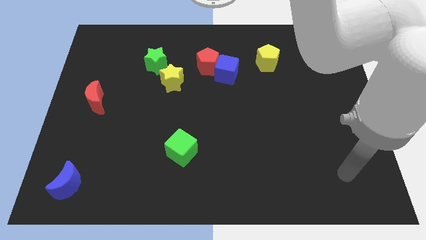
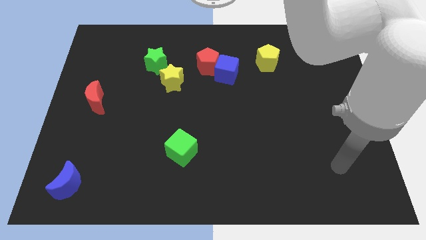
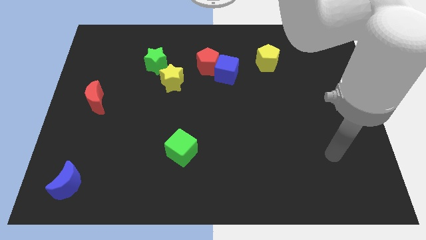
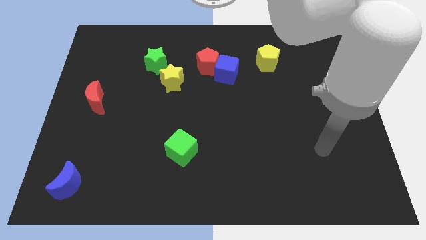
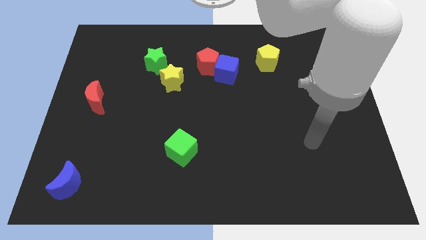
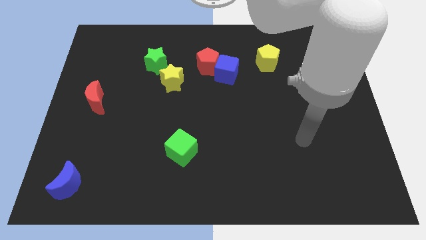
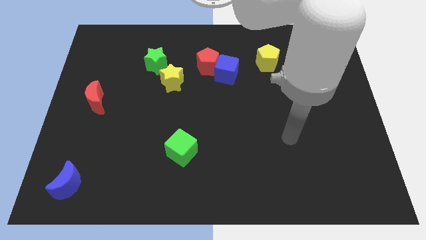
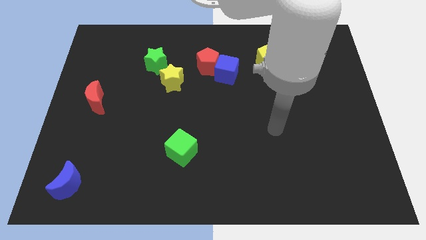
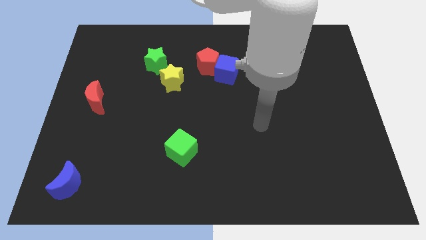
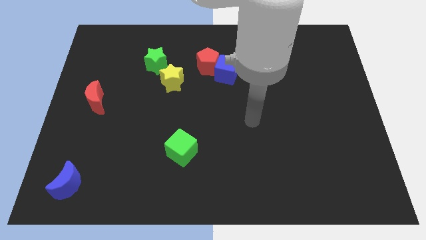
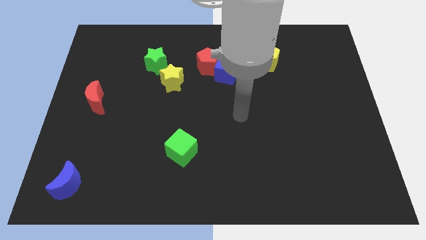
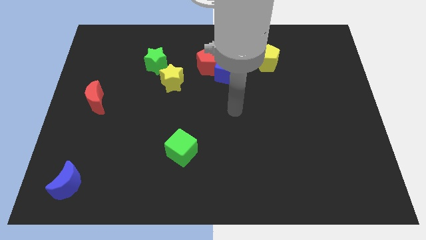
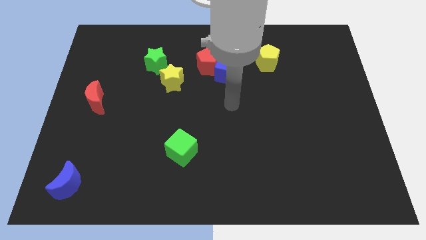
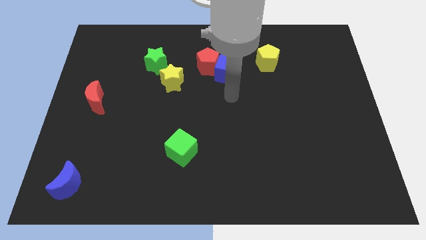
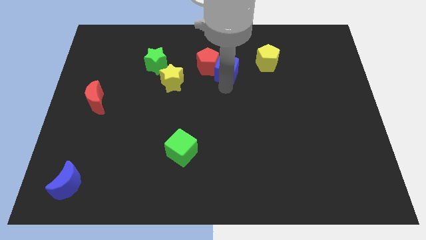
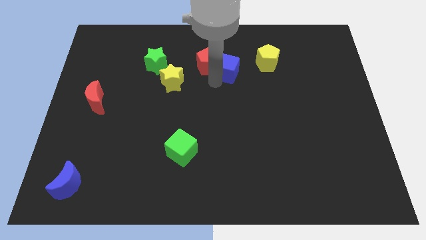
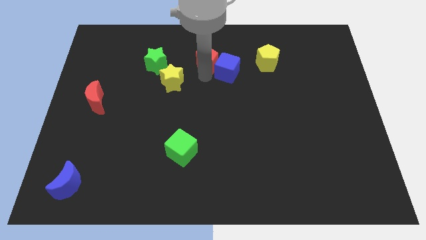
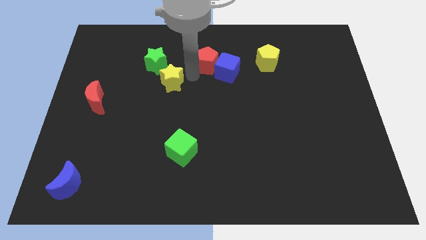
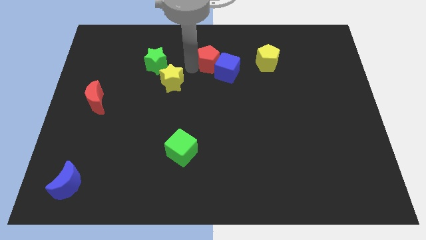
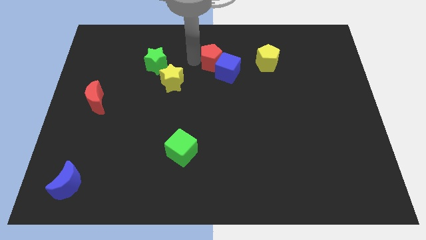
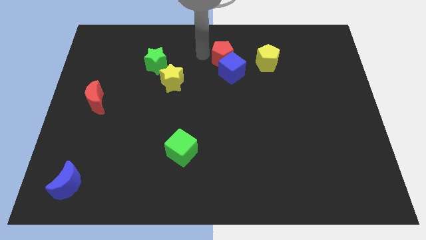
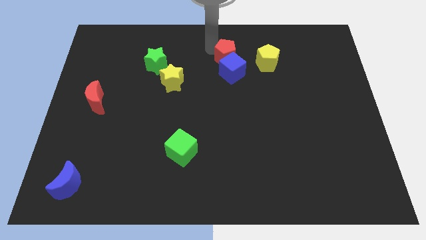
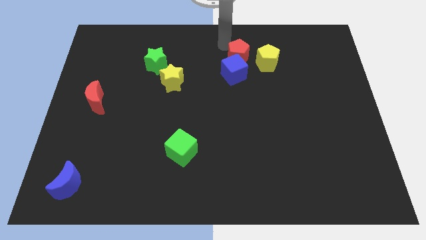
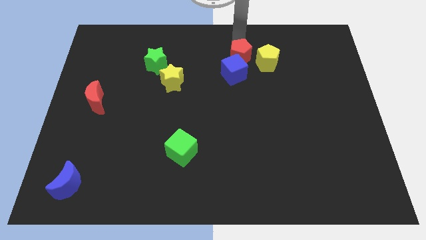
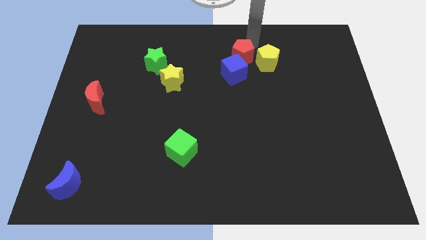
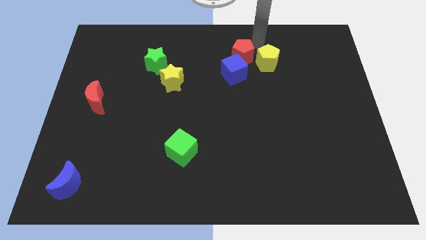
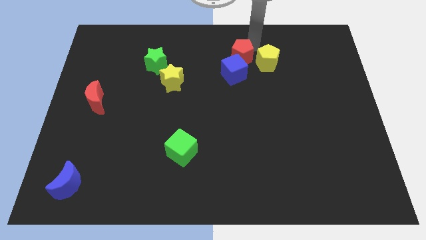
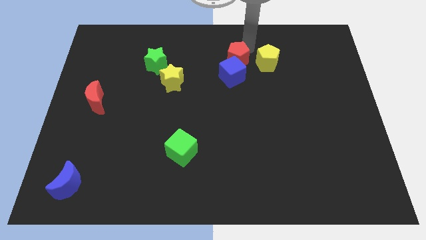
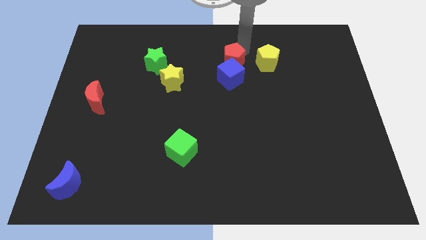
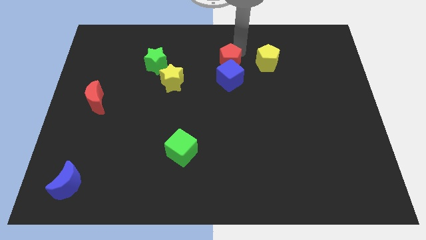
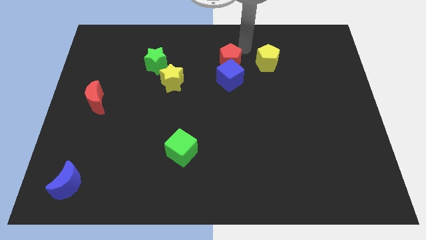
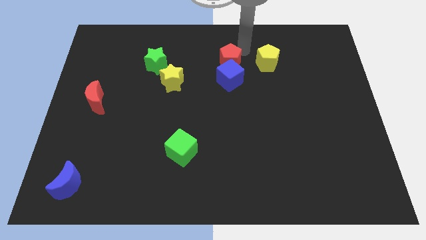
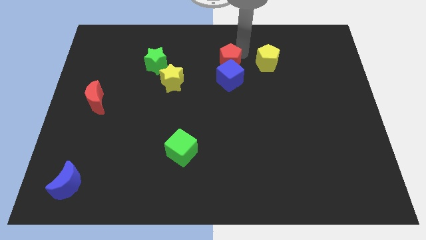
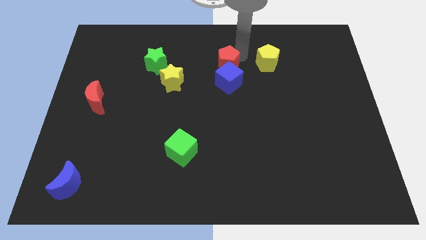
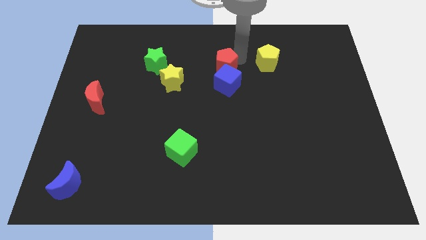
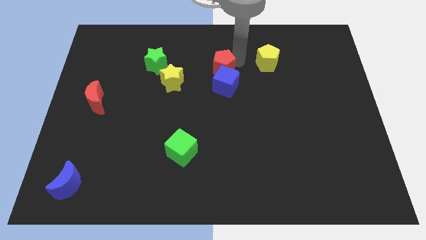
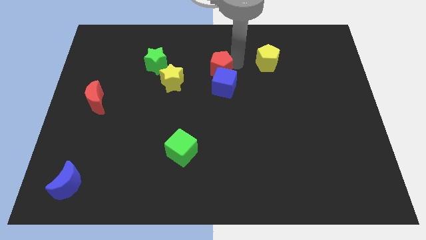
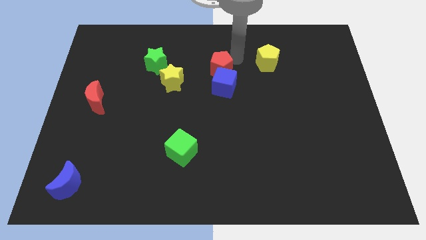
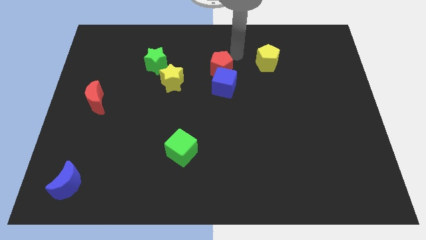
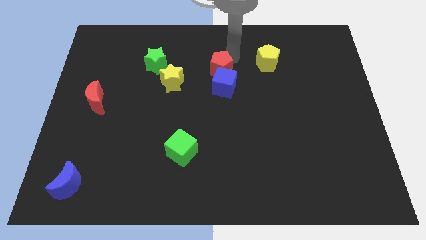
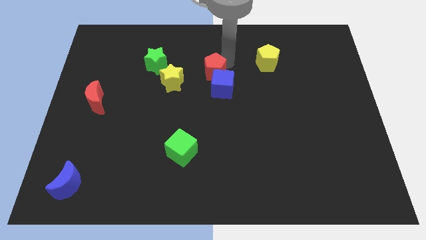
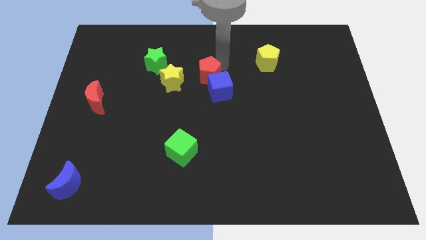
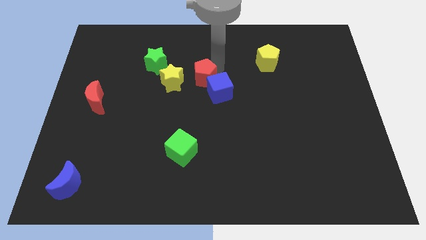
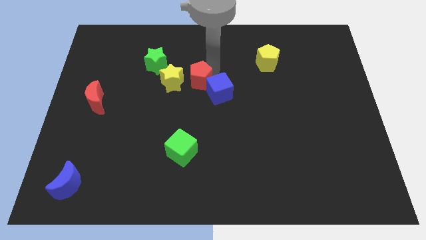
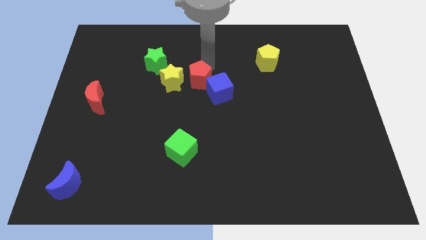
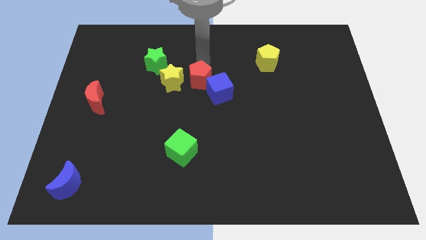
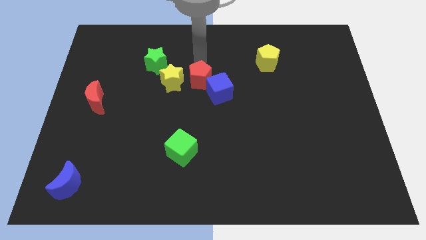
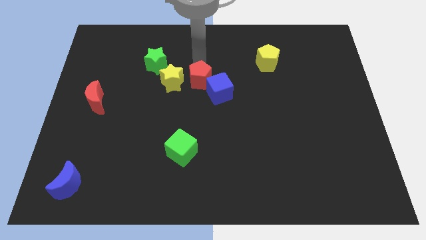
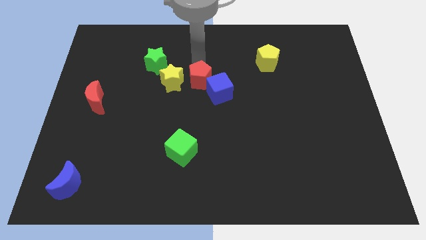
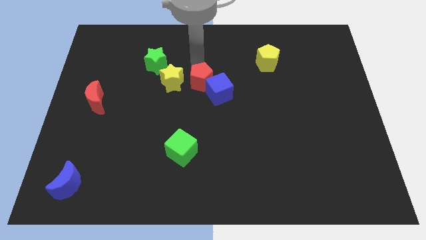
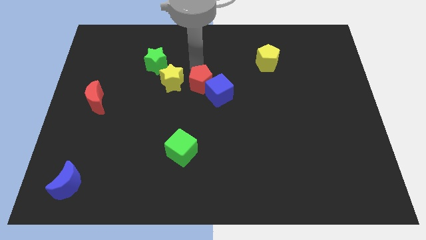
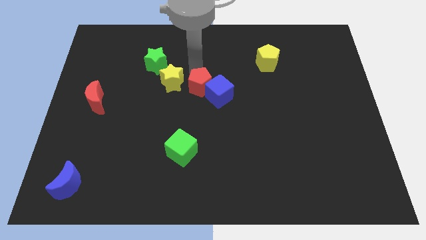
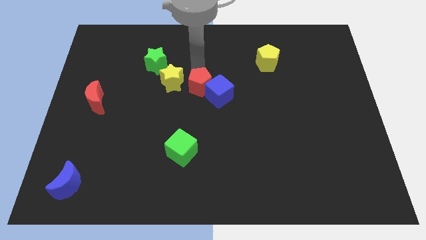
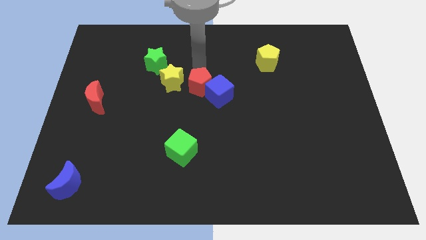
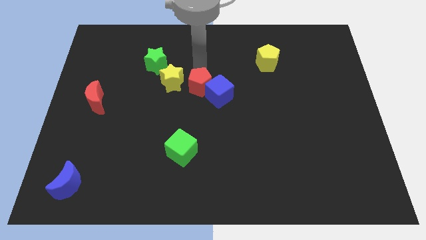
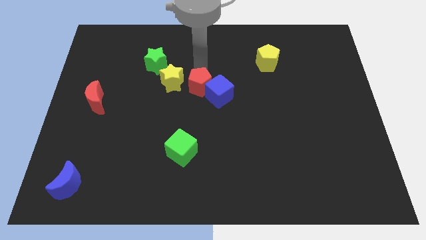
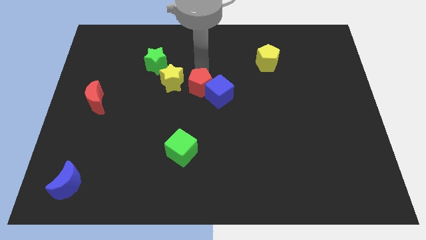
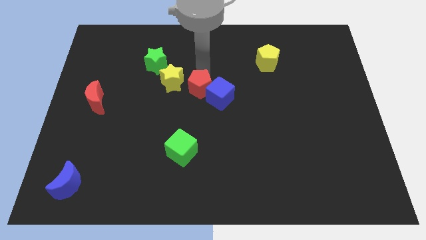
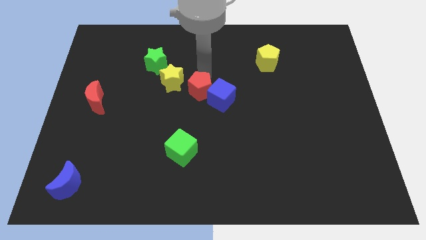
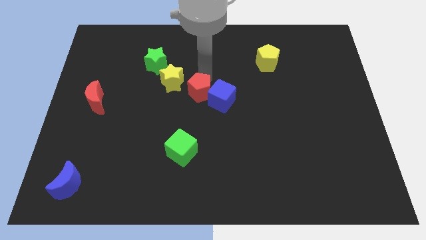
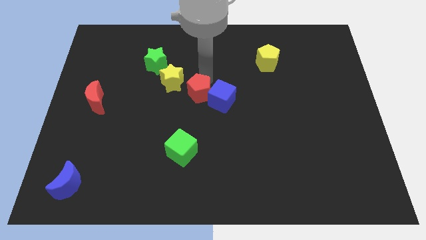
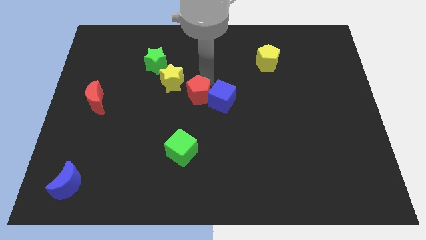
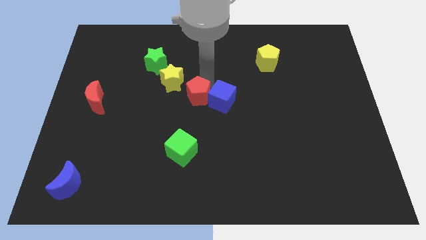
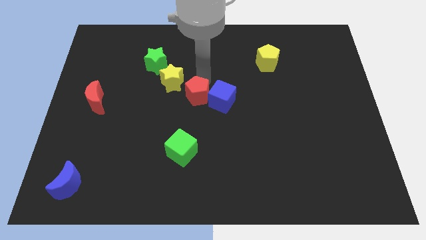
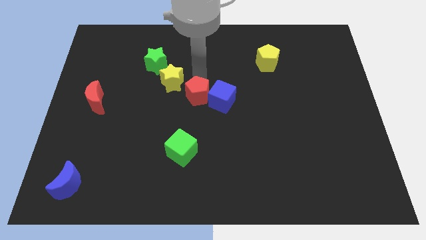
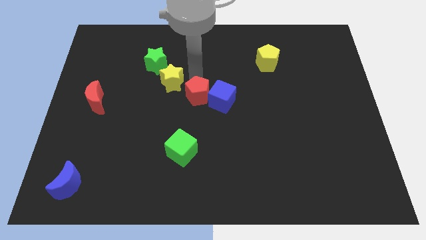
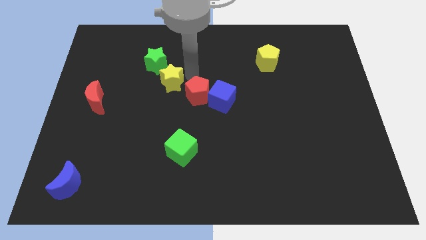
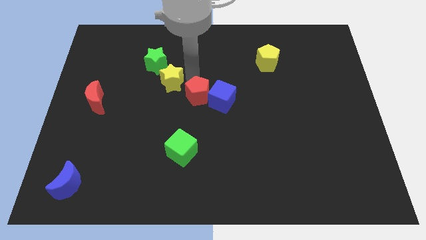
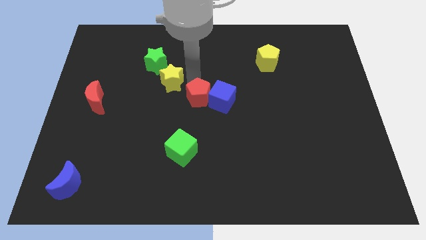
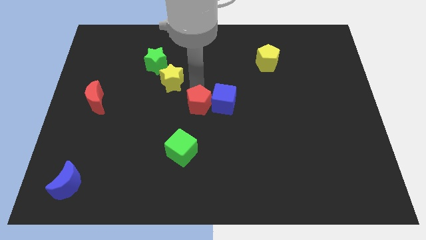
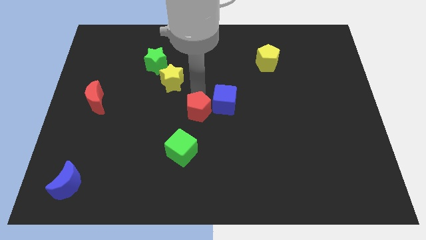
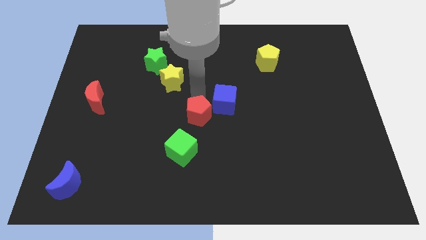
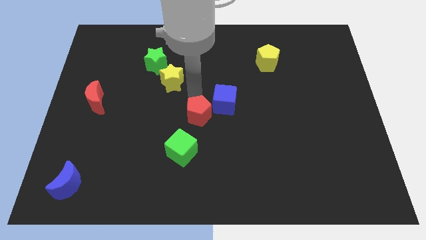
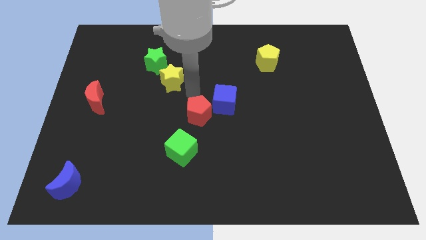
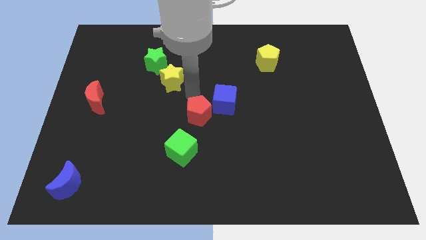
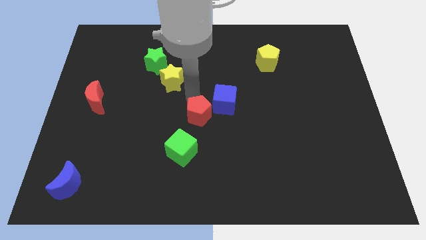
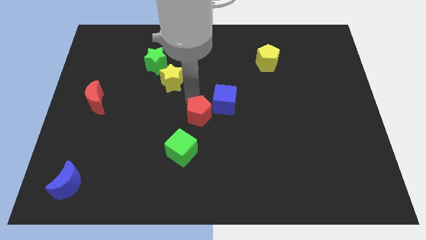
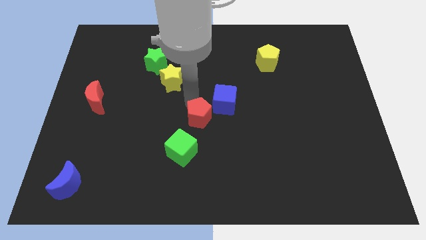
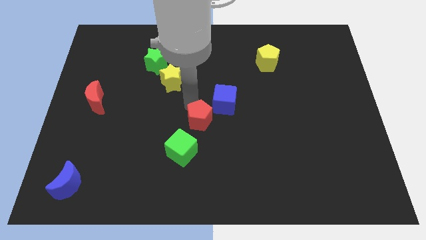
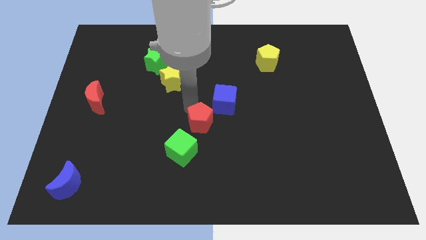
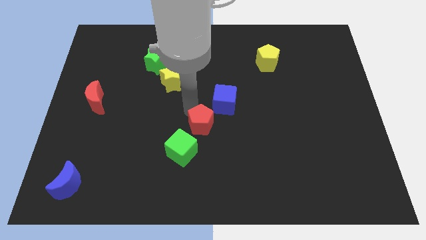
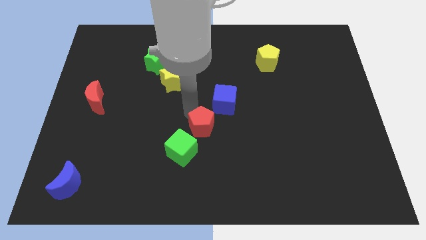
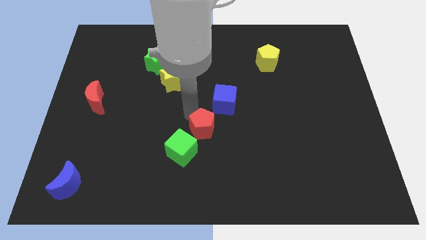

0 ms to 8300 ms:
slide the red pentagon downwards
